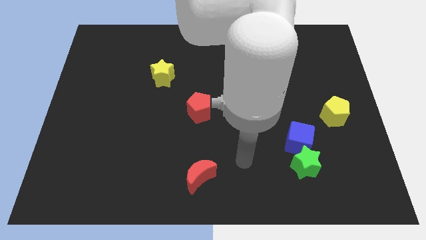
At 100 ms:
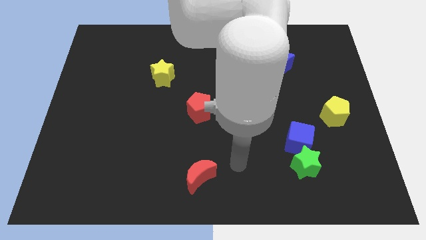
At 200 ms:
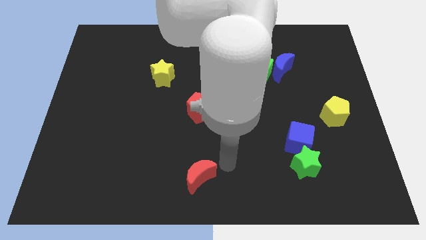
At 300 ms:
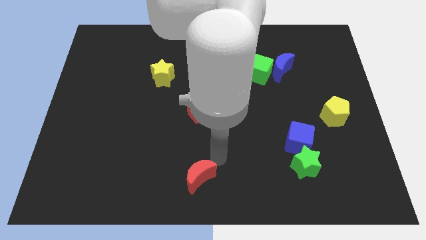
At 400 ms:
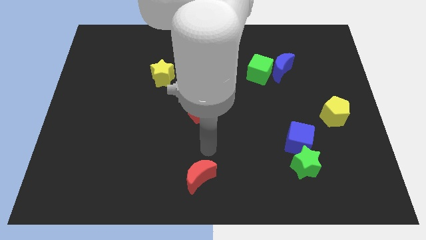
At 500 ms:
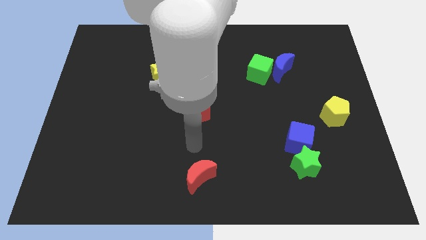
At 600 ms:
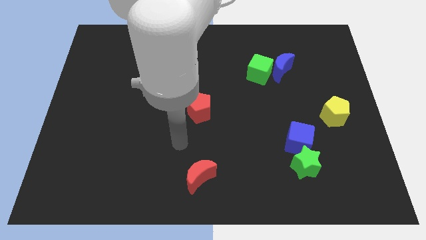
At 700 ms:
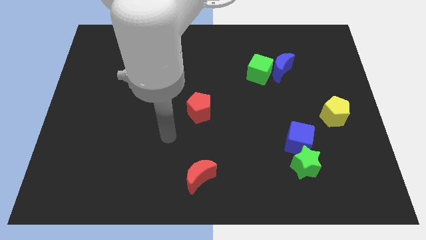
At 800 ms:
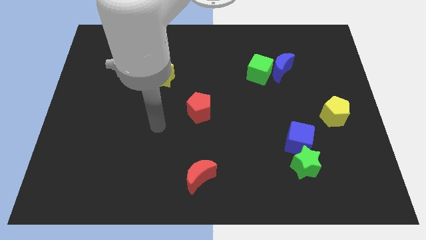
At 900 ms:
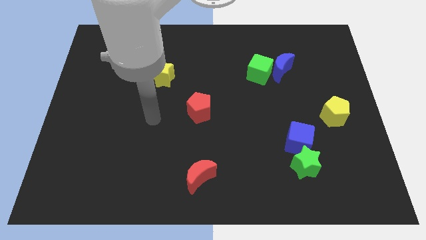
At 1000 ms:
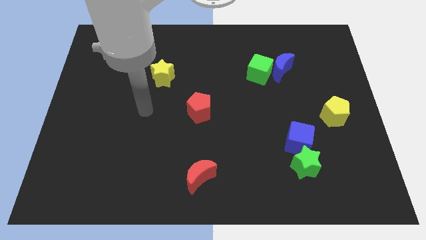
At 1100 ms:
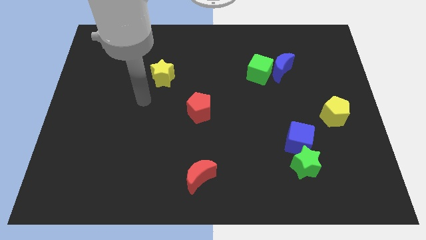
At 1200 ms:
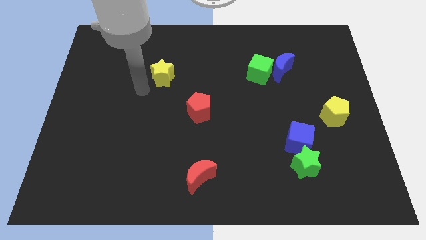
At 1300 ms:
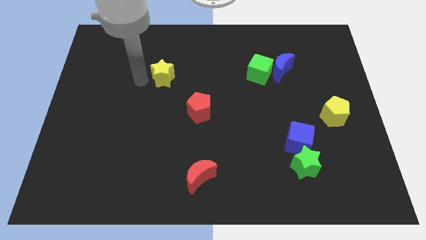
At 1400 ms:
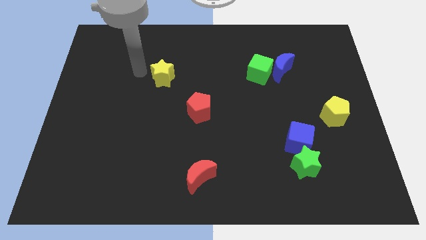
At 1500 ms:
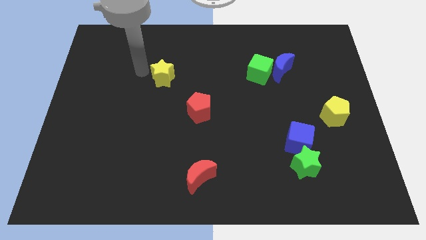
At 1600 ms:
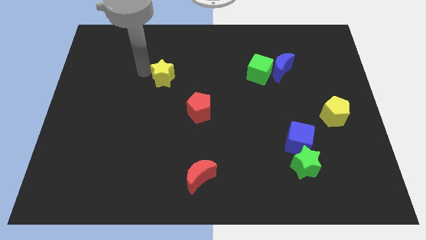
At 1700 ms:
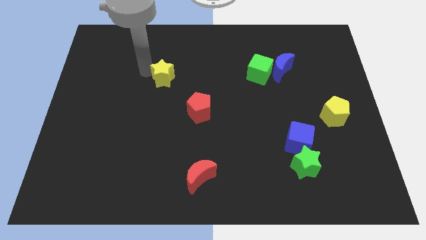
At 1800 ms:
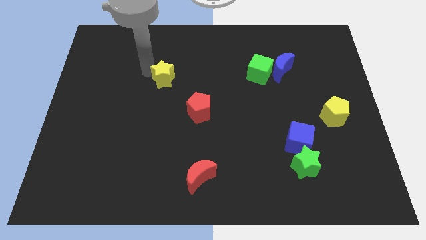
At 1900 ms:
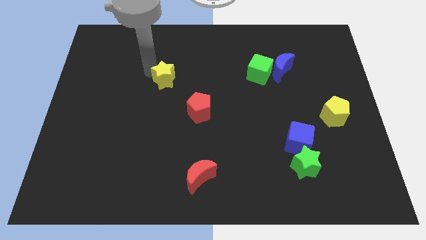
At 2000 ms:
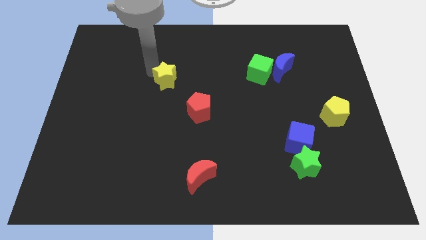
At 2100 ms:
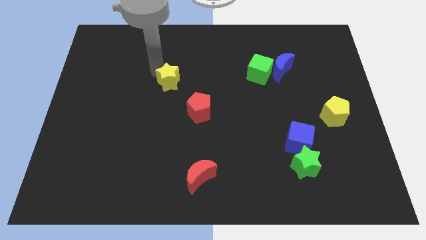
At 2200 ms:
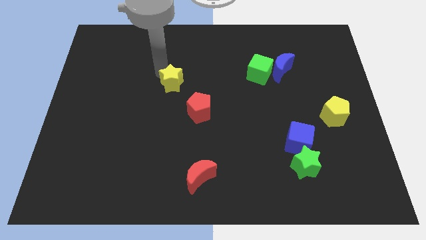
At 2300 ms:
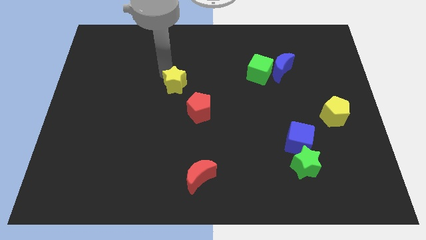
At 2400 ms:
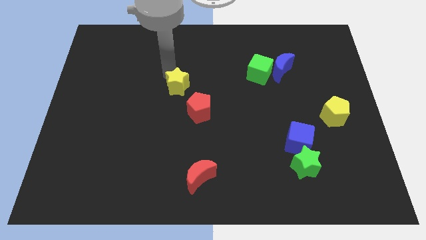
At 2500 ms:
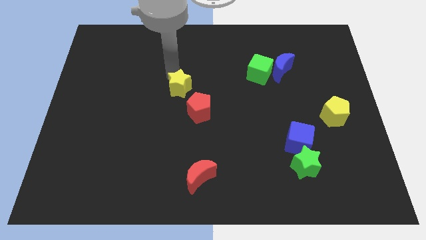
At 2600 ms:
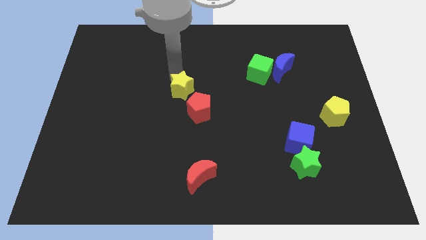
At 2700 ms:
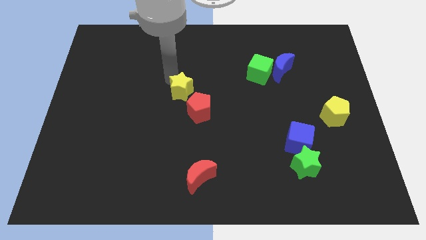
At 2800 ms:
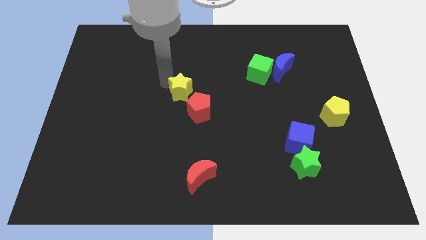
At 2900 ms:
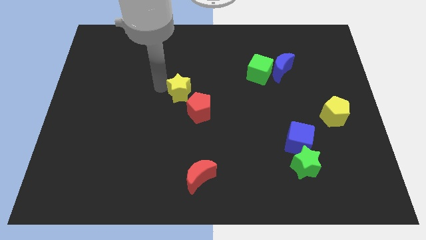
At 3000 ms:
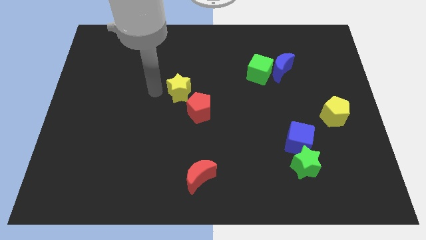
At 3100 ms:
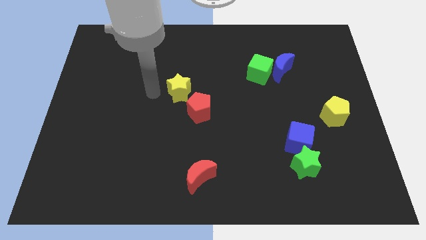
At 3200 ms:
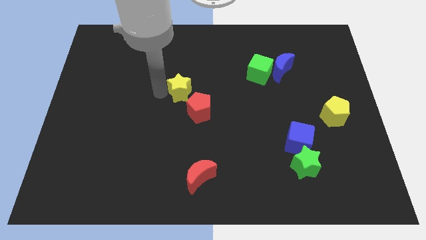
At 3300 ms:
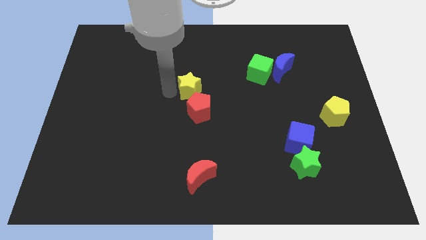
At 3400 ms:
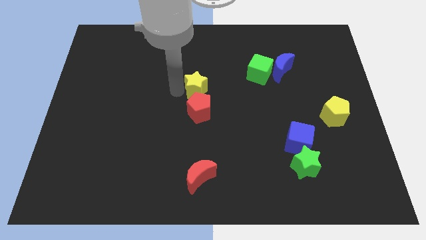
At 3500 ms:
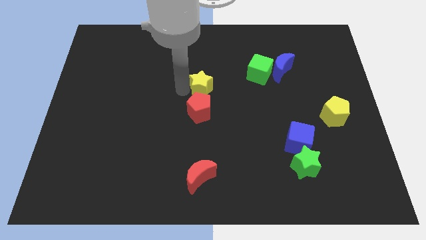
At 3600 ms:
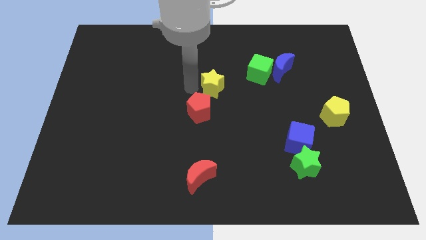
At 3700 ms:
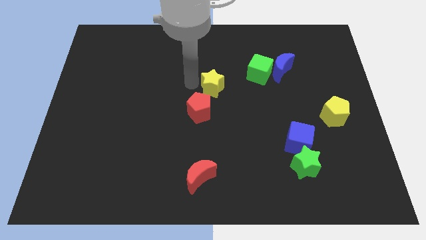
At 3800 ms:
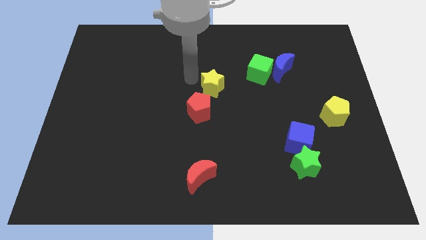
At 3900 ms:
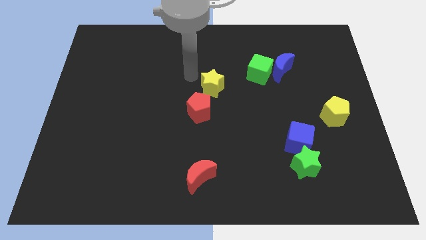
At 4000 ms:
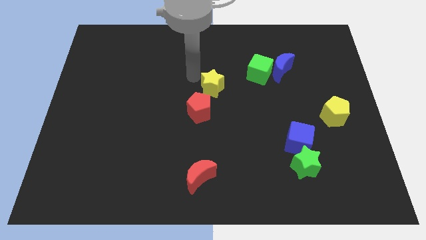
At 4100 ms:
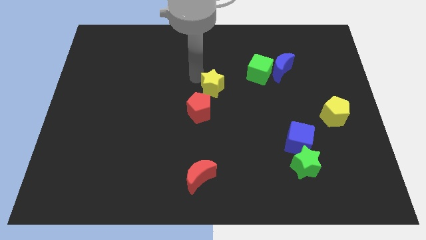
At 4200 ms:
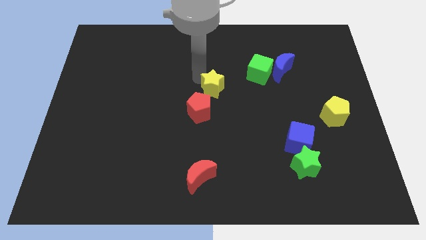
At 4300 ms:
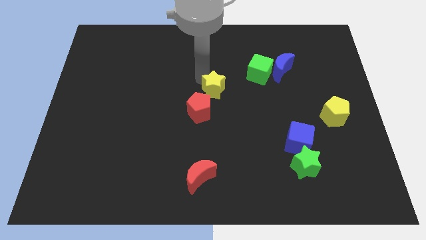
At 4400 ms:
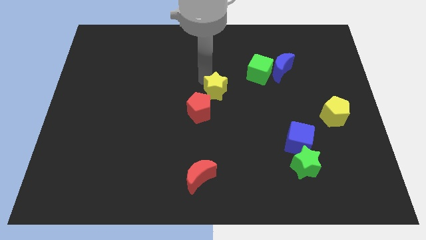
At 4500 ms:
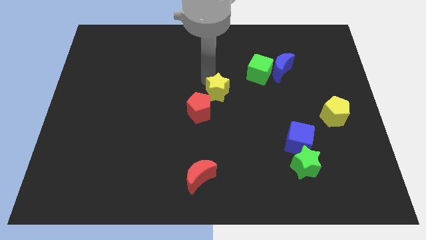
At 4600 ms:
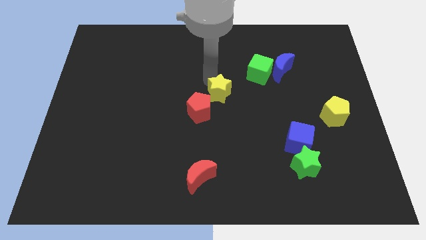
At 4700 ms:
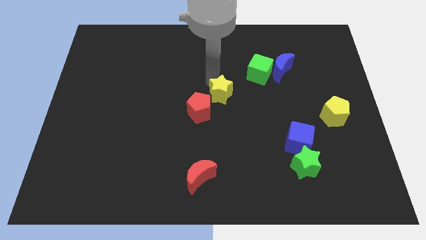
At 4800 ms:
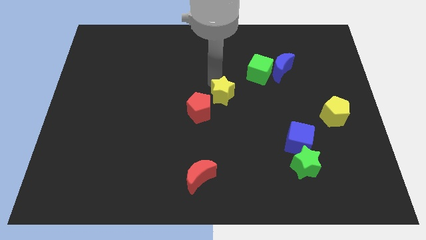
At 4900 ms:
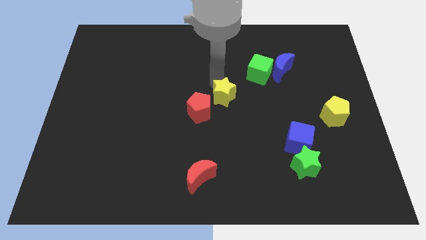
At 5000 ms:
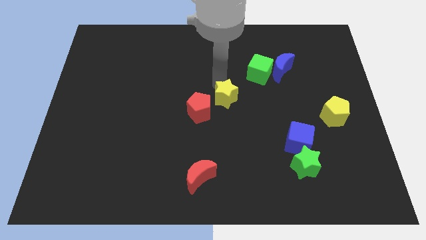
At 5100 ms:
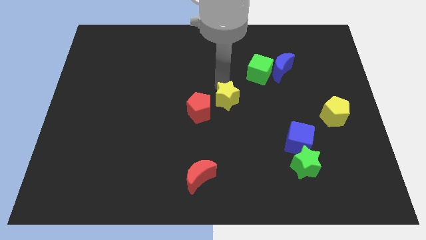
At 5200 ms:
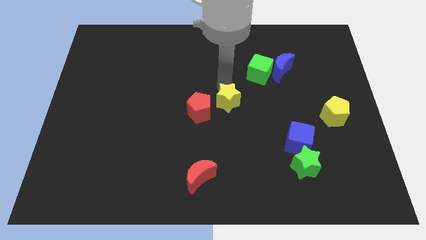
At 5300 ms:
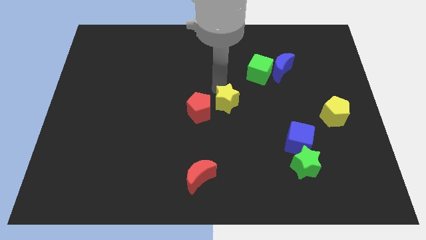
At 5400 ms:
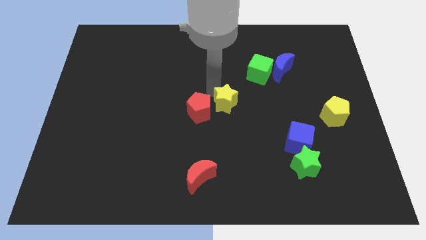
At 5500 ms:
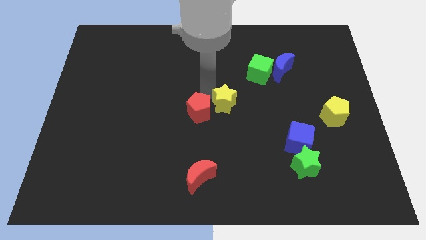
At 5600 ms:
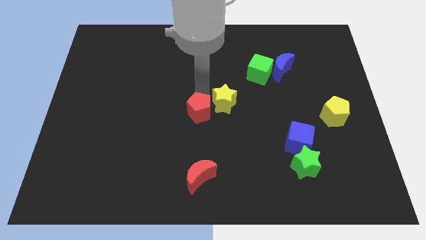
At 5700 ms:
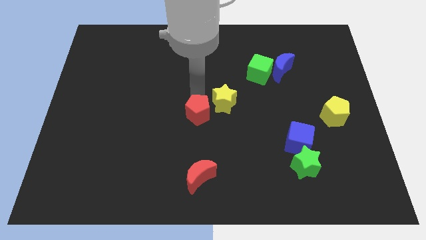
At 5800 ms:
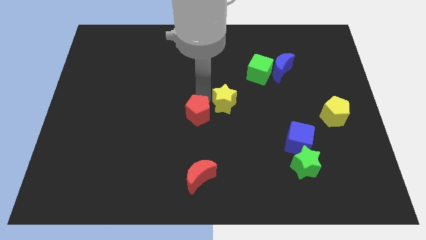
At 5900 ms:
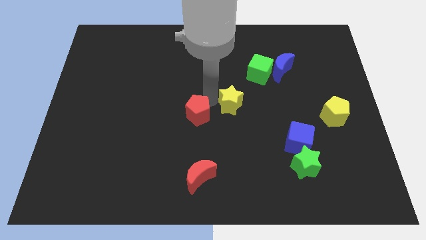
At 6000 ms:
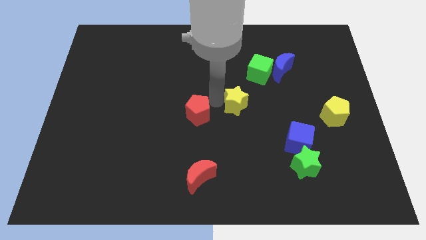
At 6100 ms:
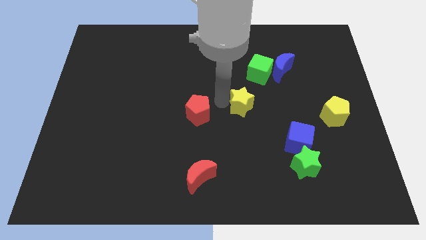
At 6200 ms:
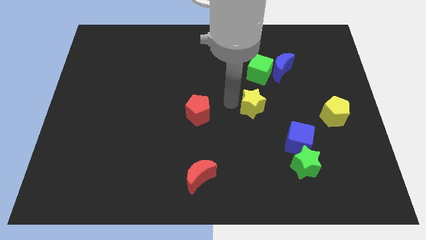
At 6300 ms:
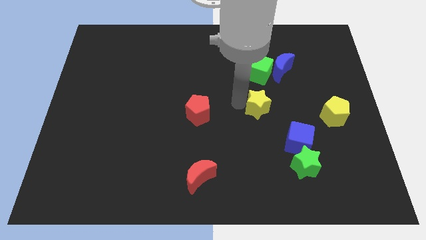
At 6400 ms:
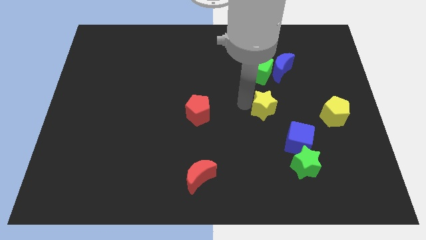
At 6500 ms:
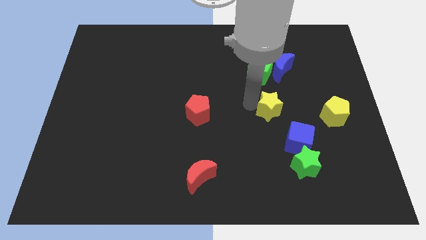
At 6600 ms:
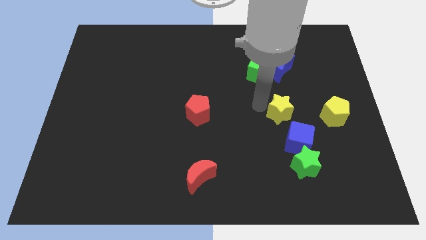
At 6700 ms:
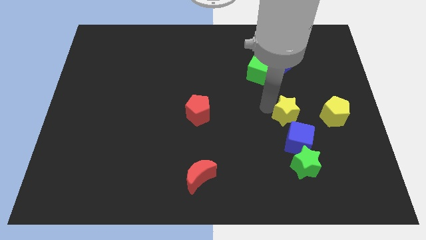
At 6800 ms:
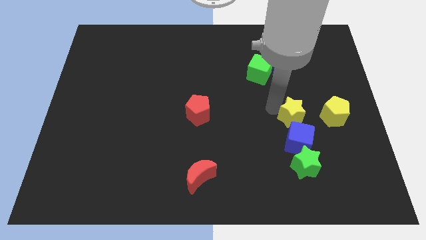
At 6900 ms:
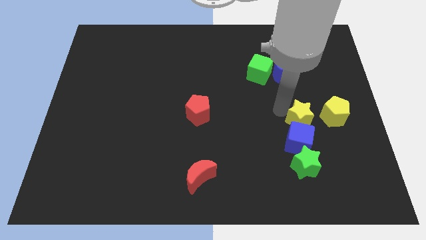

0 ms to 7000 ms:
put the yellow star diagonally down and to the left of the yellow pentagon

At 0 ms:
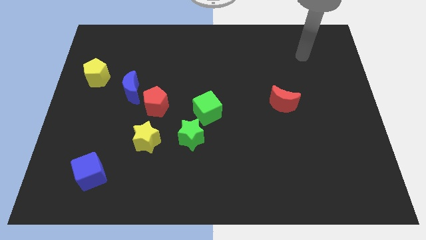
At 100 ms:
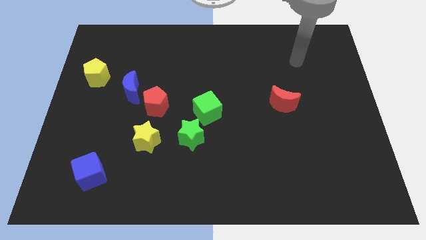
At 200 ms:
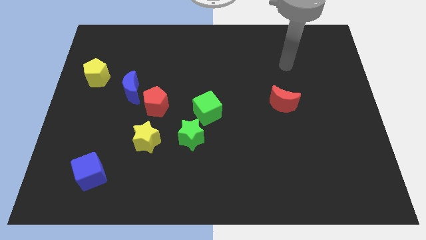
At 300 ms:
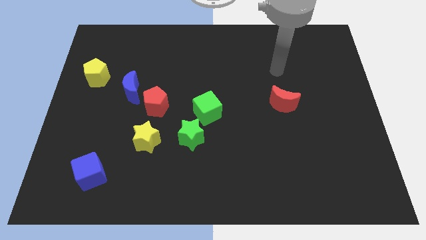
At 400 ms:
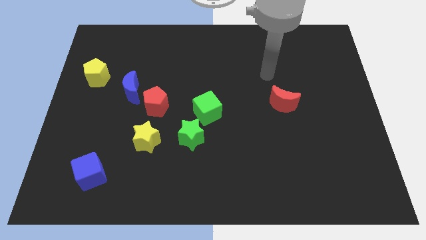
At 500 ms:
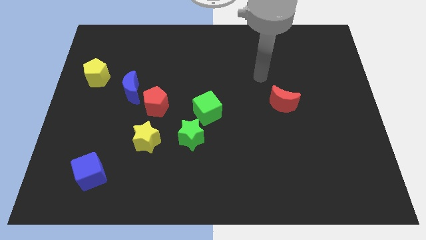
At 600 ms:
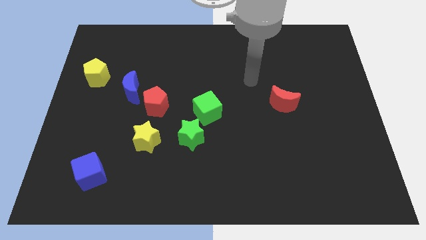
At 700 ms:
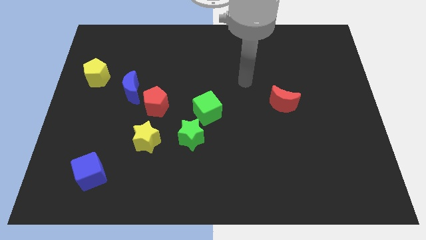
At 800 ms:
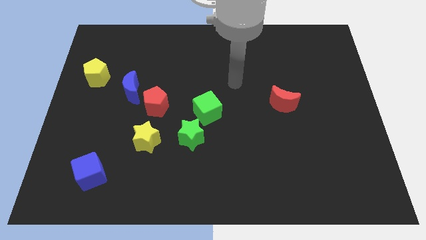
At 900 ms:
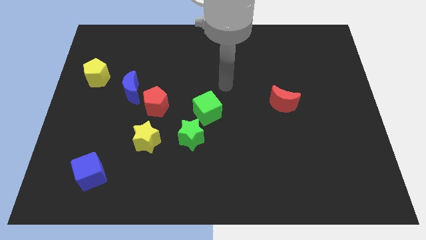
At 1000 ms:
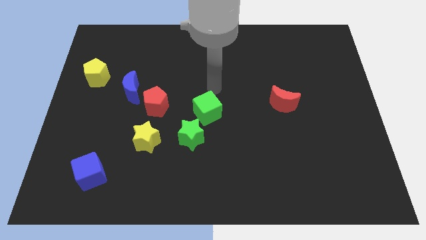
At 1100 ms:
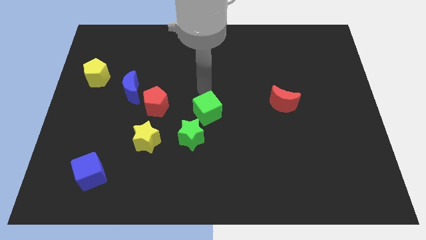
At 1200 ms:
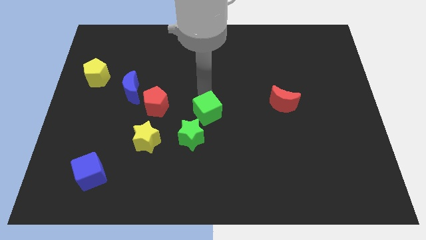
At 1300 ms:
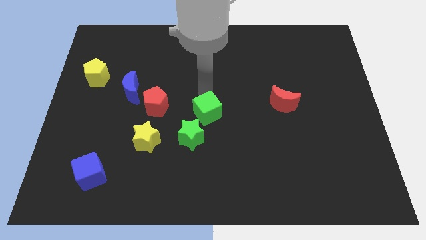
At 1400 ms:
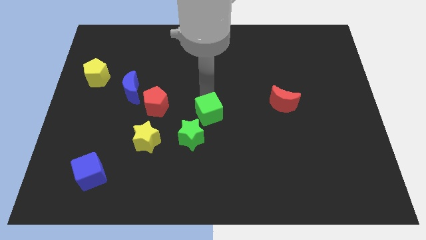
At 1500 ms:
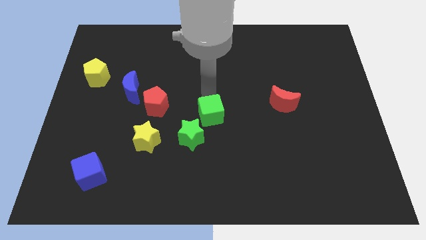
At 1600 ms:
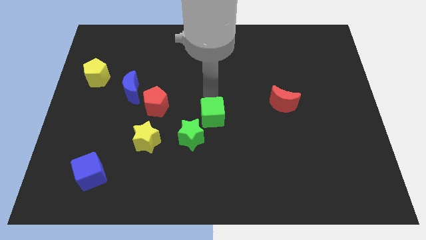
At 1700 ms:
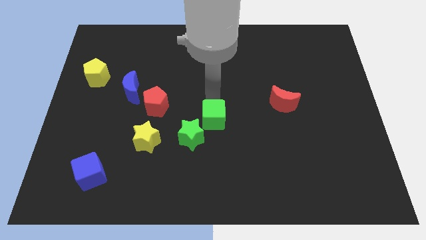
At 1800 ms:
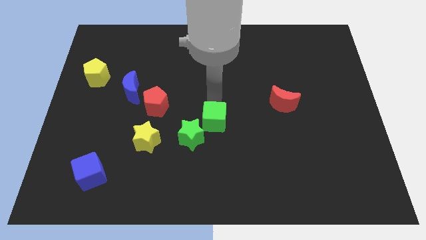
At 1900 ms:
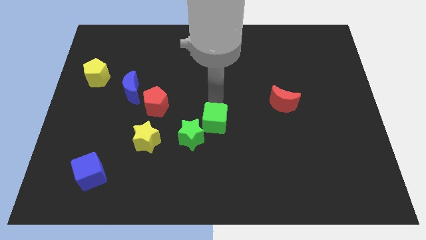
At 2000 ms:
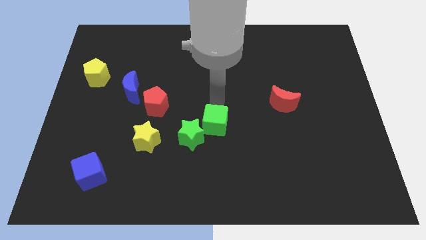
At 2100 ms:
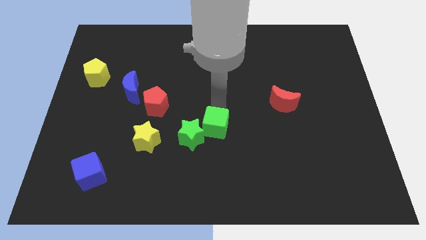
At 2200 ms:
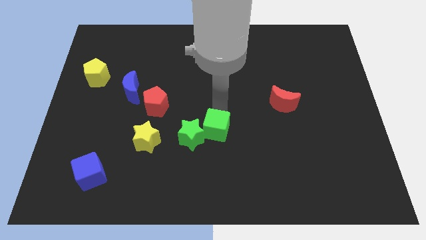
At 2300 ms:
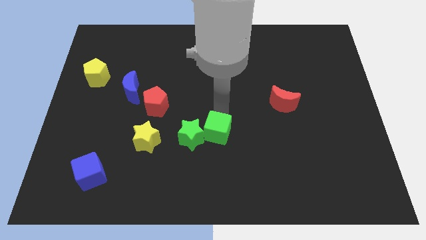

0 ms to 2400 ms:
slide the green cube just right of the yellow star
